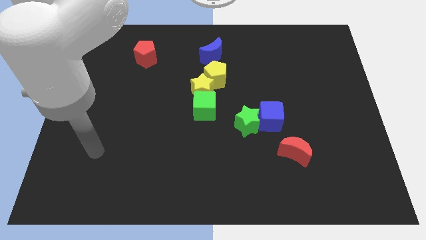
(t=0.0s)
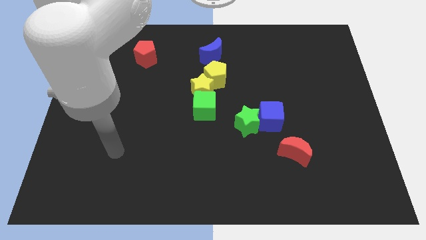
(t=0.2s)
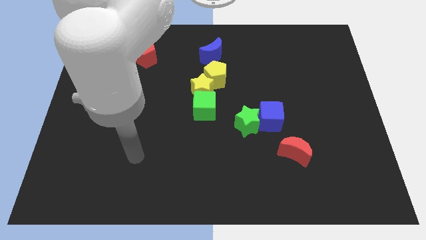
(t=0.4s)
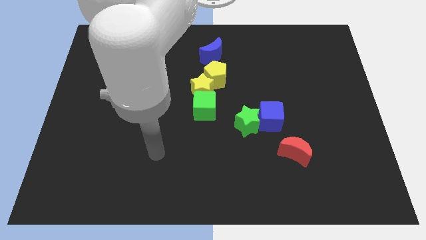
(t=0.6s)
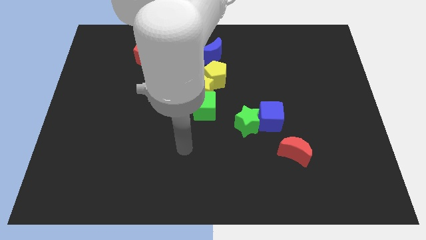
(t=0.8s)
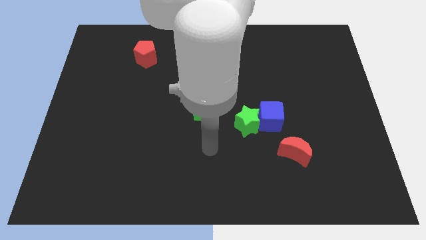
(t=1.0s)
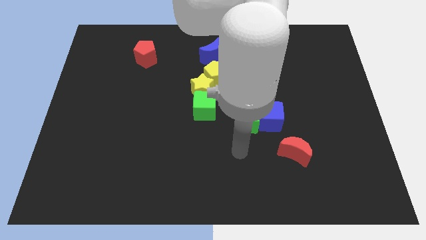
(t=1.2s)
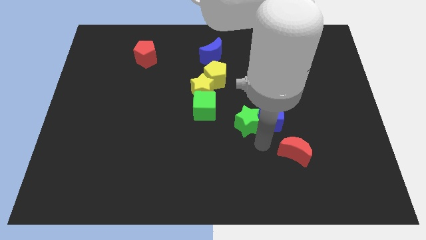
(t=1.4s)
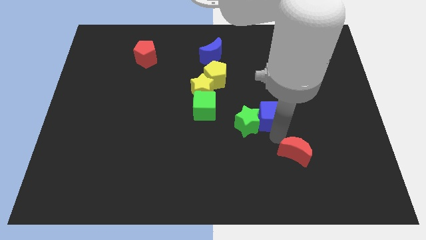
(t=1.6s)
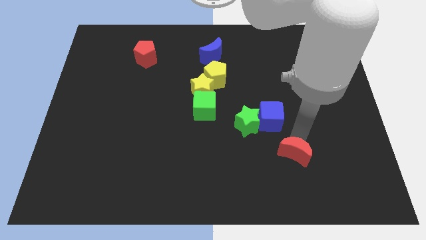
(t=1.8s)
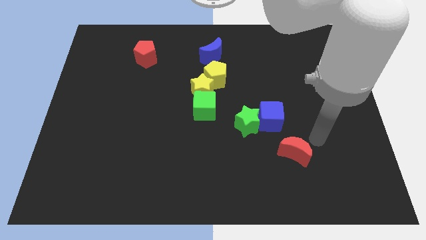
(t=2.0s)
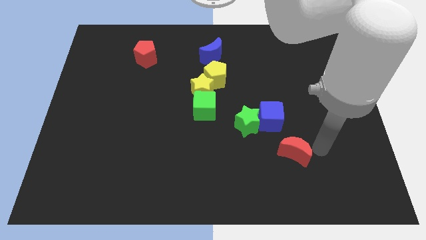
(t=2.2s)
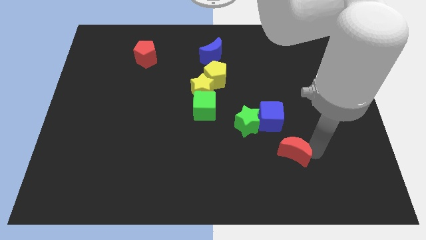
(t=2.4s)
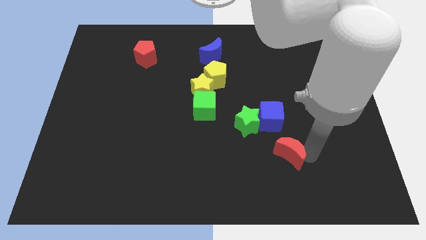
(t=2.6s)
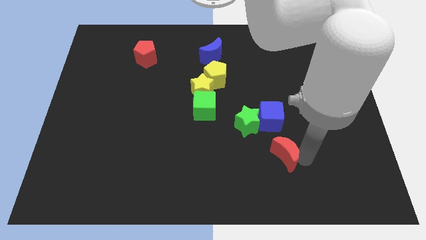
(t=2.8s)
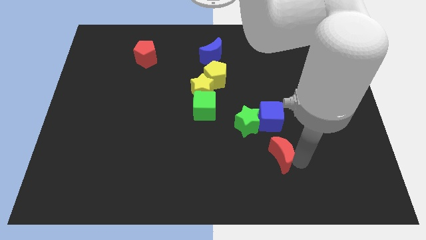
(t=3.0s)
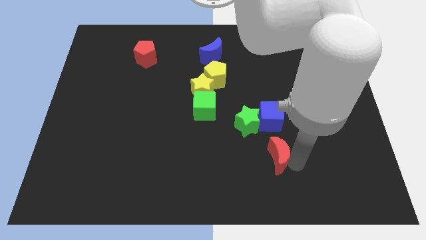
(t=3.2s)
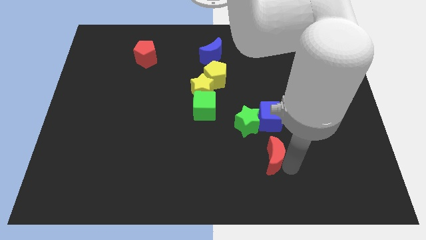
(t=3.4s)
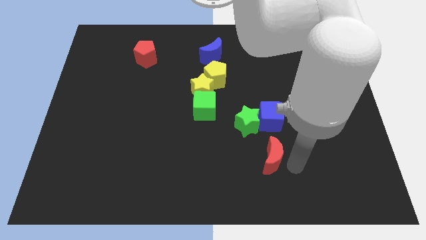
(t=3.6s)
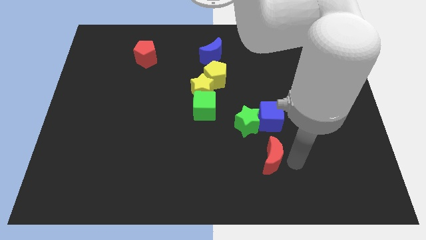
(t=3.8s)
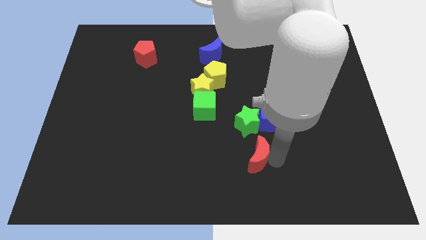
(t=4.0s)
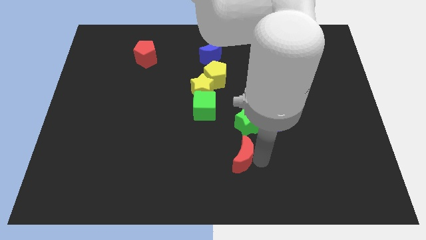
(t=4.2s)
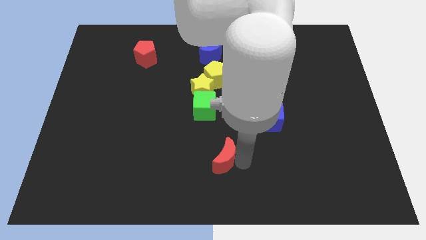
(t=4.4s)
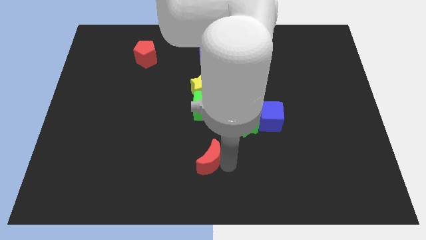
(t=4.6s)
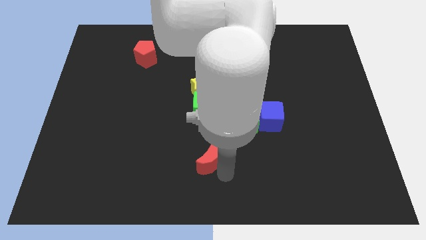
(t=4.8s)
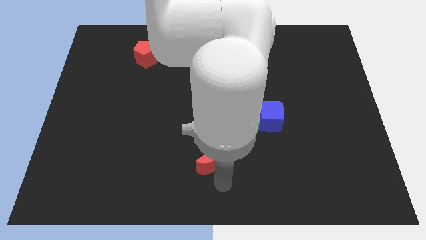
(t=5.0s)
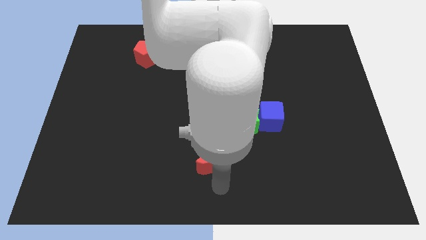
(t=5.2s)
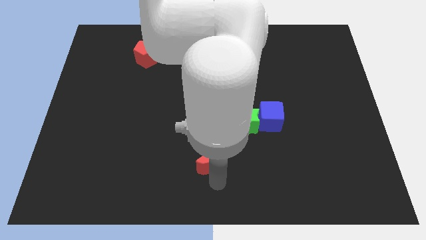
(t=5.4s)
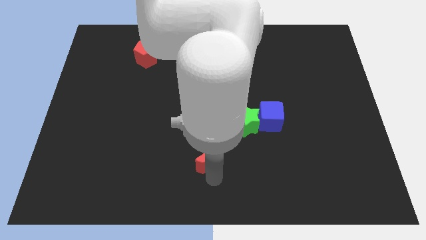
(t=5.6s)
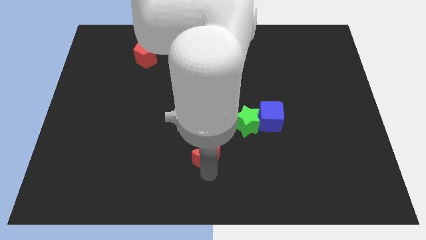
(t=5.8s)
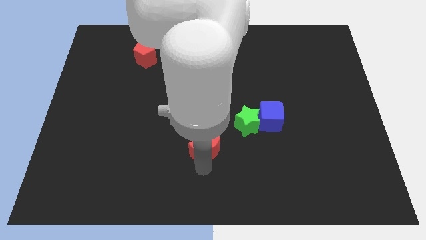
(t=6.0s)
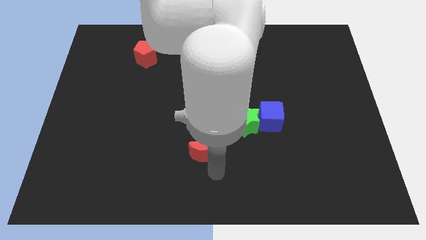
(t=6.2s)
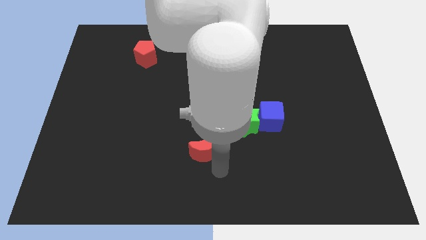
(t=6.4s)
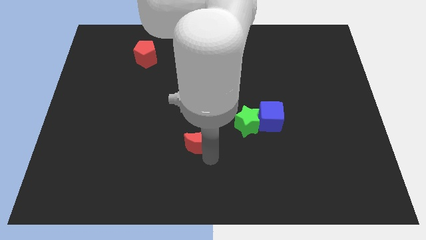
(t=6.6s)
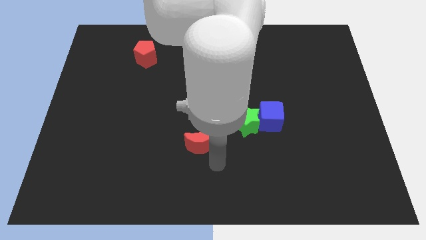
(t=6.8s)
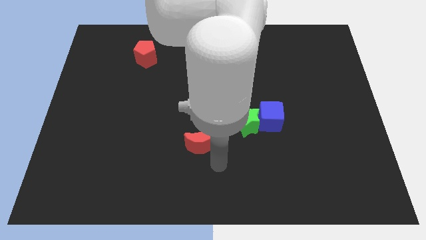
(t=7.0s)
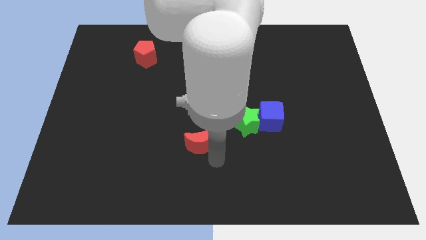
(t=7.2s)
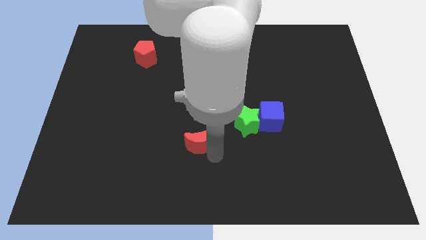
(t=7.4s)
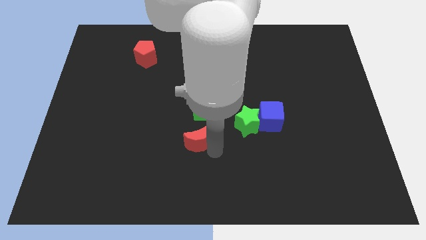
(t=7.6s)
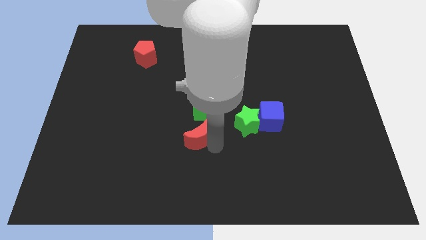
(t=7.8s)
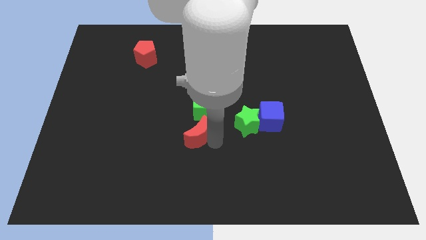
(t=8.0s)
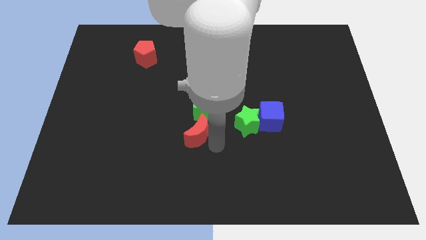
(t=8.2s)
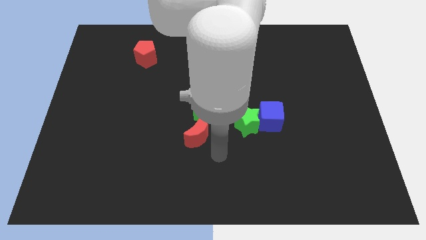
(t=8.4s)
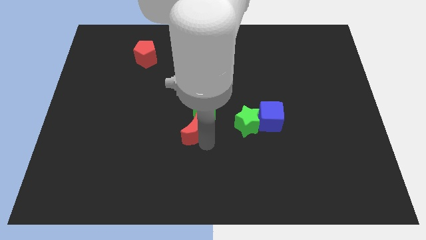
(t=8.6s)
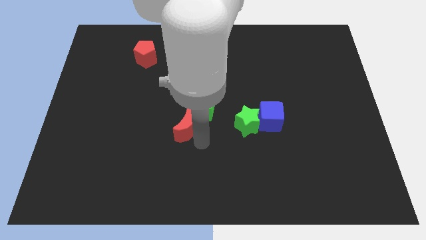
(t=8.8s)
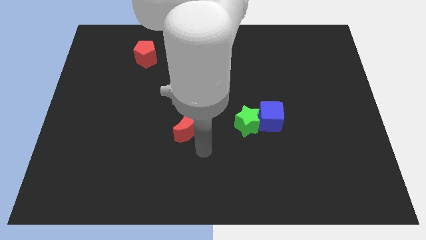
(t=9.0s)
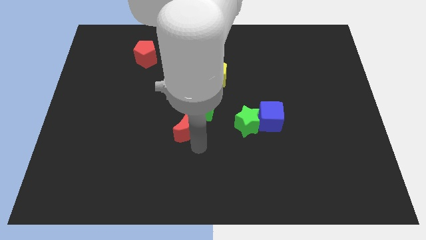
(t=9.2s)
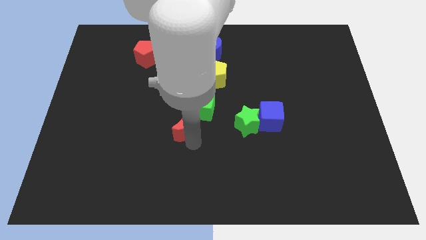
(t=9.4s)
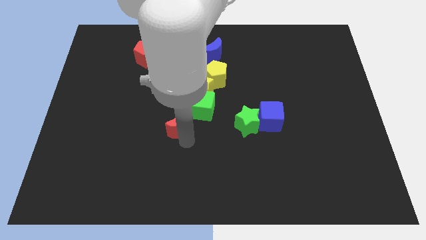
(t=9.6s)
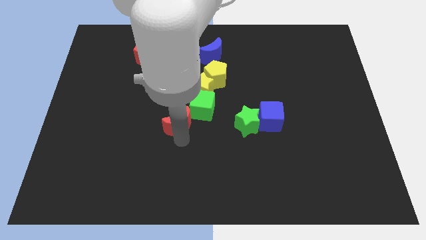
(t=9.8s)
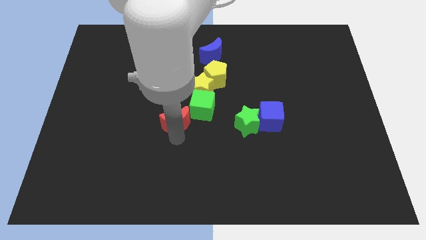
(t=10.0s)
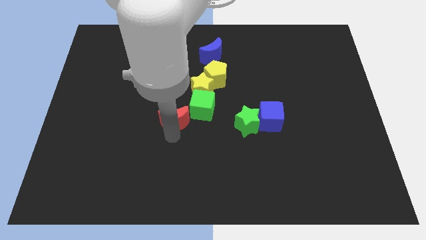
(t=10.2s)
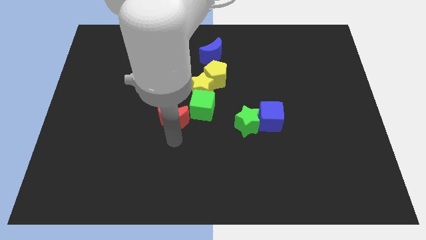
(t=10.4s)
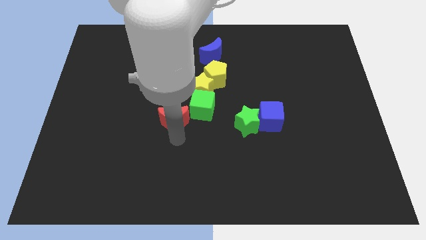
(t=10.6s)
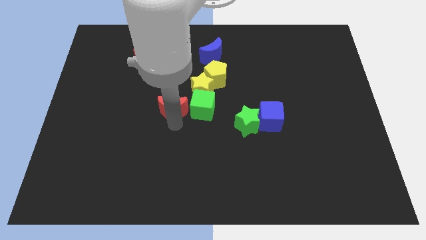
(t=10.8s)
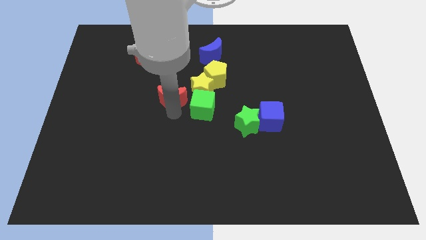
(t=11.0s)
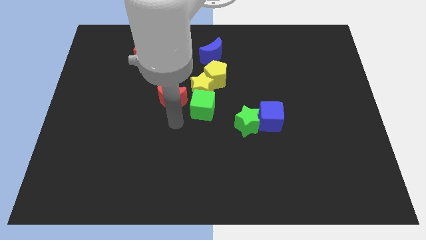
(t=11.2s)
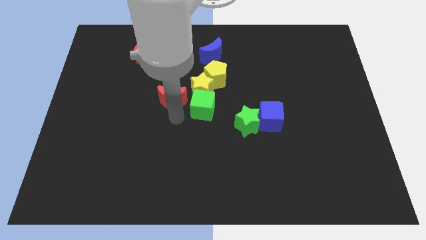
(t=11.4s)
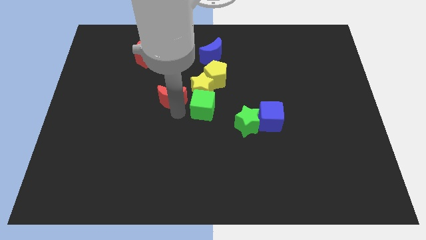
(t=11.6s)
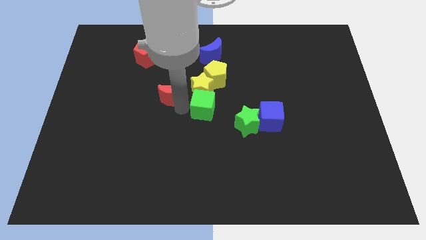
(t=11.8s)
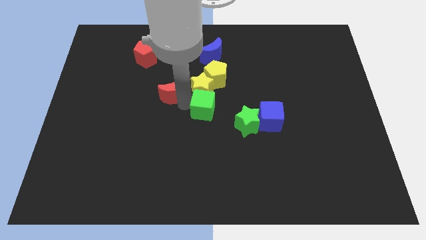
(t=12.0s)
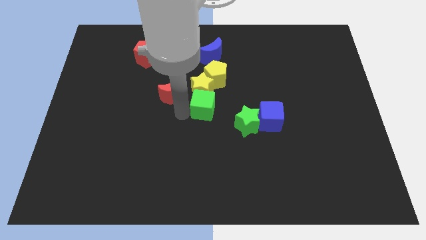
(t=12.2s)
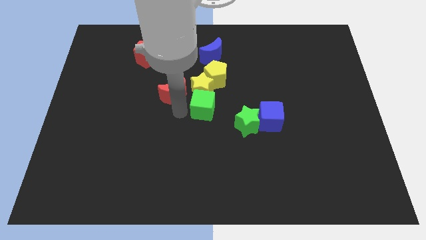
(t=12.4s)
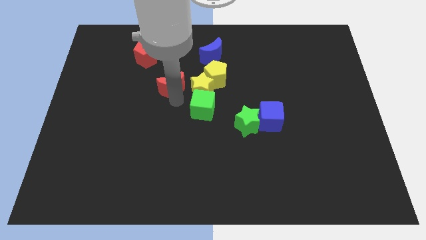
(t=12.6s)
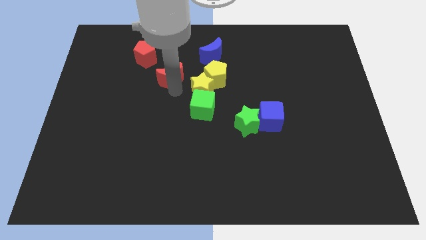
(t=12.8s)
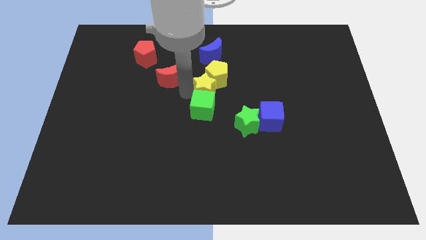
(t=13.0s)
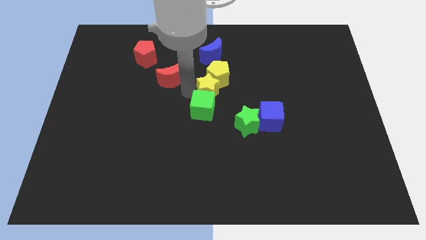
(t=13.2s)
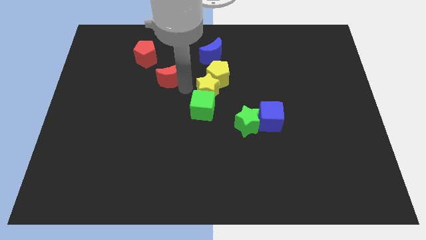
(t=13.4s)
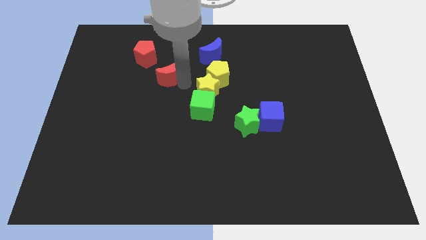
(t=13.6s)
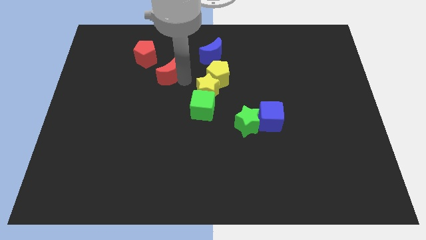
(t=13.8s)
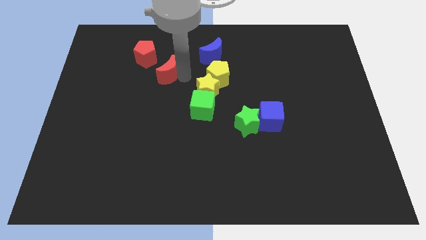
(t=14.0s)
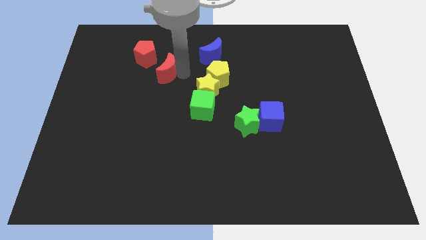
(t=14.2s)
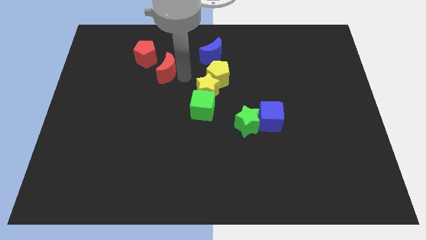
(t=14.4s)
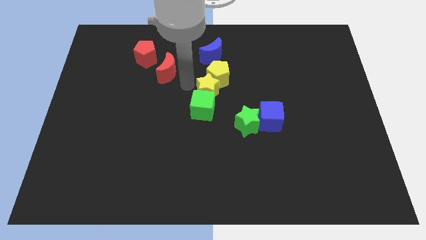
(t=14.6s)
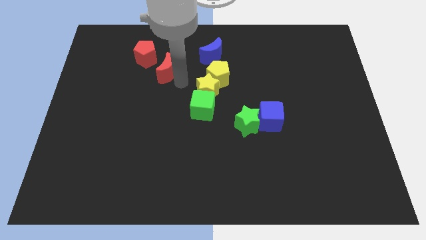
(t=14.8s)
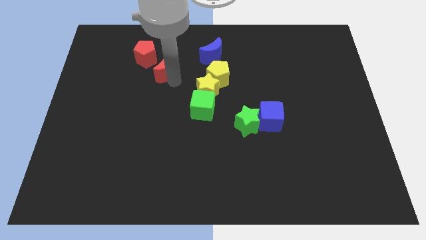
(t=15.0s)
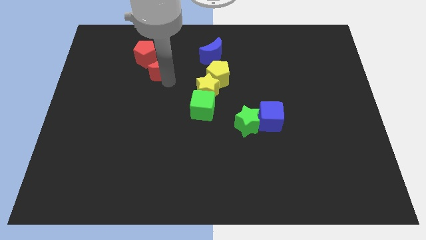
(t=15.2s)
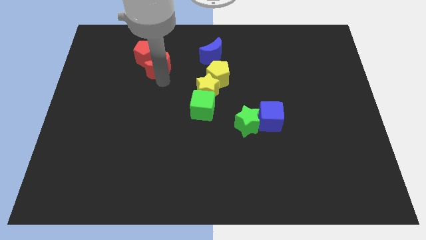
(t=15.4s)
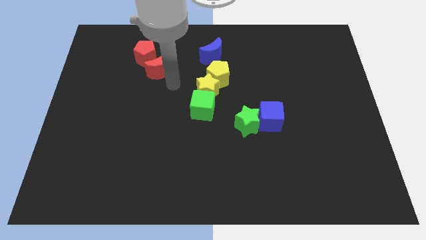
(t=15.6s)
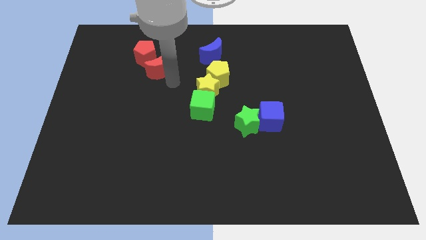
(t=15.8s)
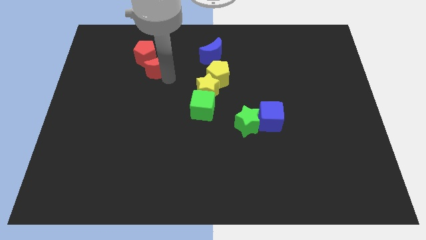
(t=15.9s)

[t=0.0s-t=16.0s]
put the red moon next to the red pentagon

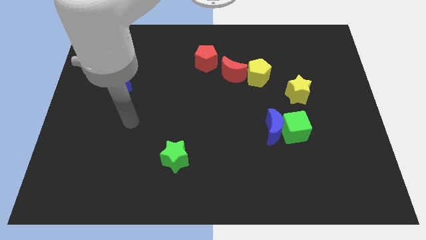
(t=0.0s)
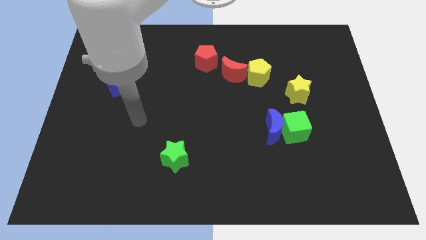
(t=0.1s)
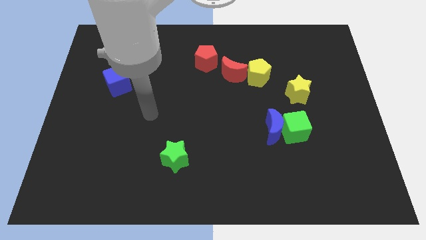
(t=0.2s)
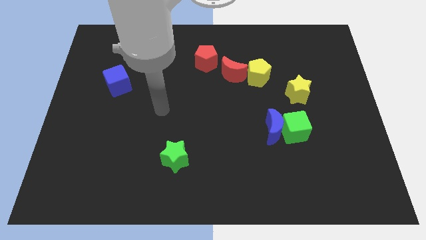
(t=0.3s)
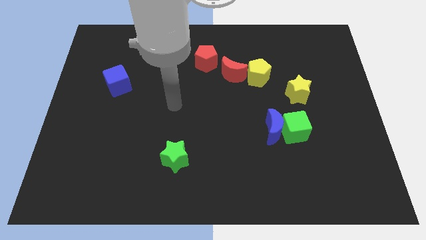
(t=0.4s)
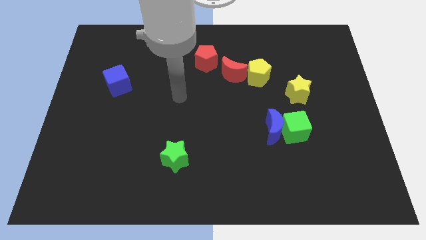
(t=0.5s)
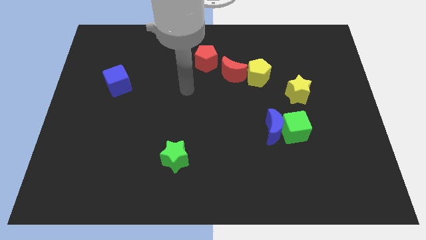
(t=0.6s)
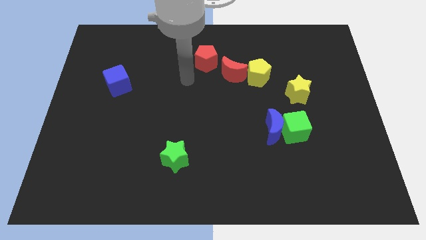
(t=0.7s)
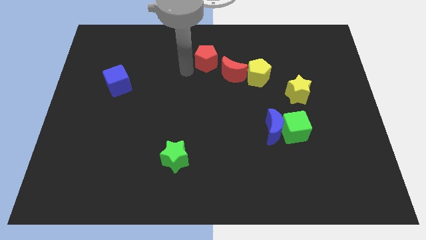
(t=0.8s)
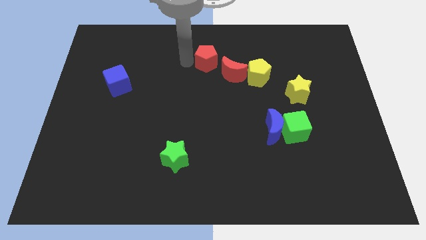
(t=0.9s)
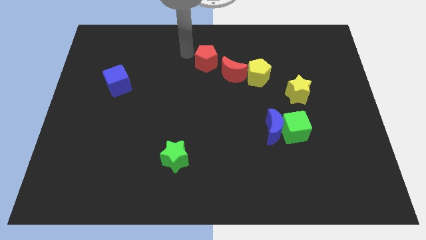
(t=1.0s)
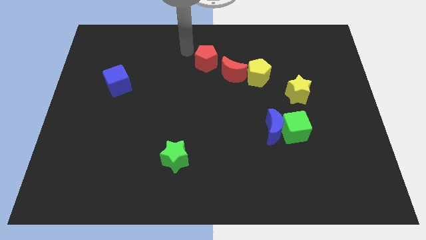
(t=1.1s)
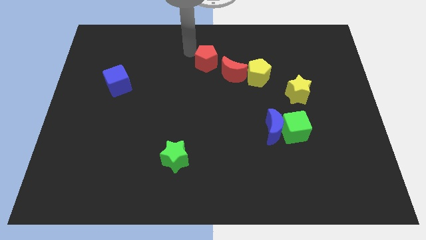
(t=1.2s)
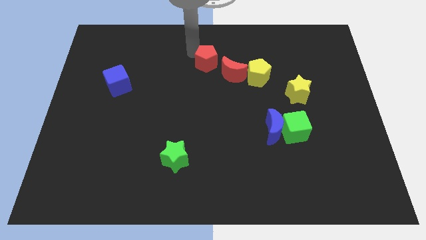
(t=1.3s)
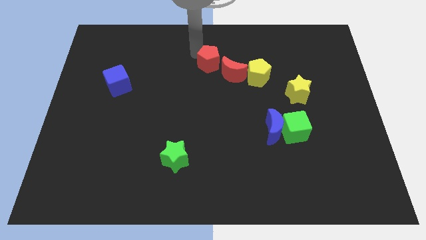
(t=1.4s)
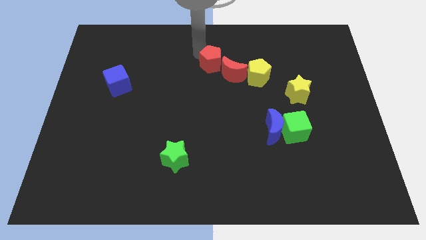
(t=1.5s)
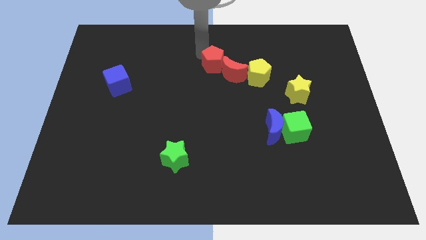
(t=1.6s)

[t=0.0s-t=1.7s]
put the red pentagon towards the red moon
